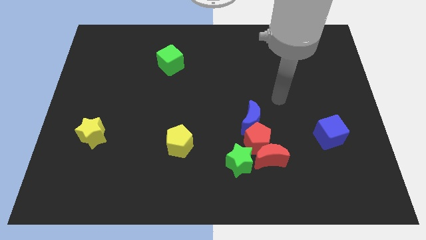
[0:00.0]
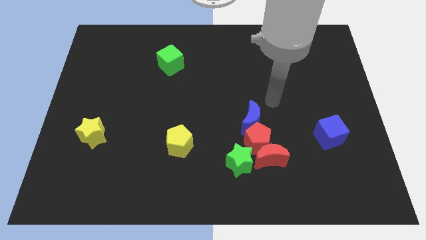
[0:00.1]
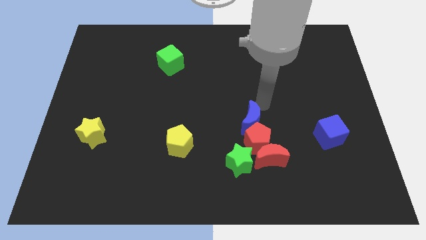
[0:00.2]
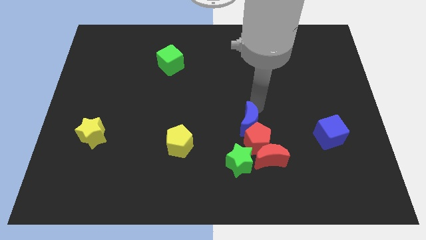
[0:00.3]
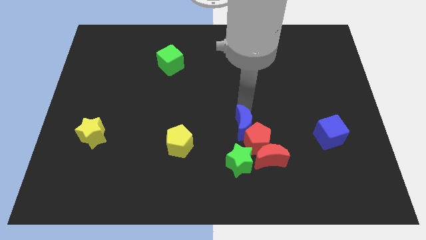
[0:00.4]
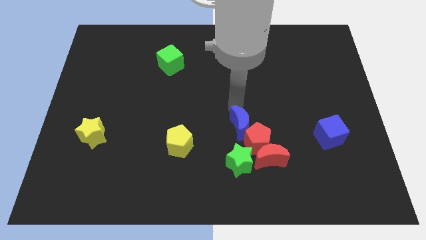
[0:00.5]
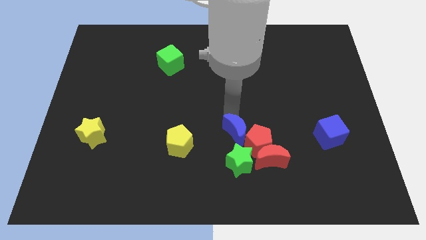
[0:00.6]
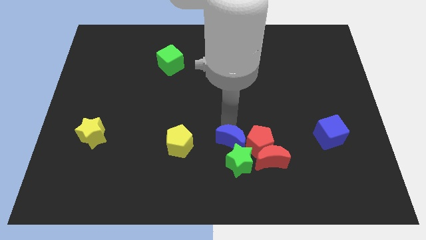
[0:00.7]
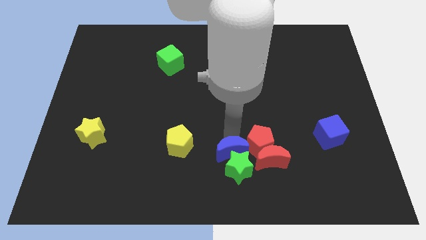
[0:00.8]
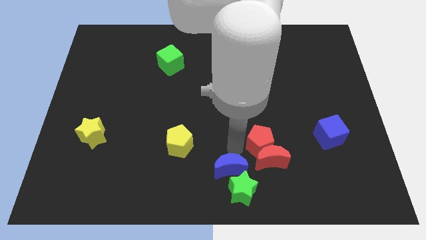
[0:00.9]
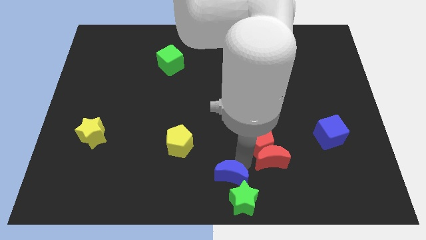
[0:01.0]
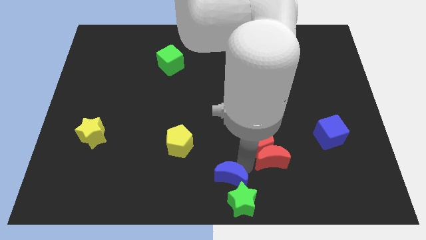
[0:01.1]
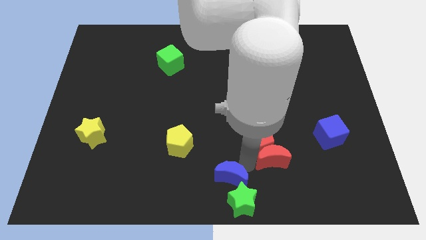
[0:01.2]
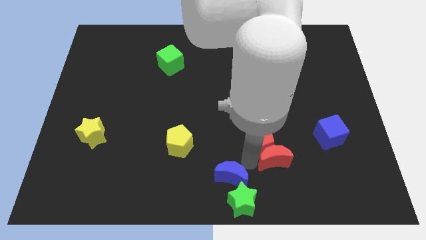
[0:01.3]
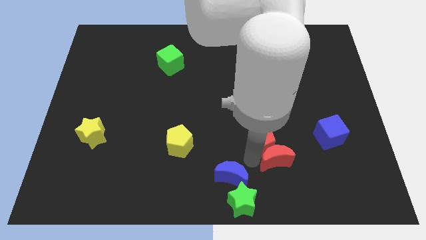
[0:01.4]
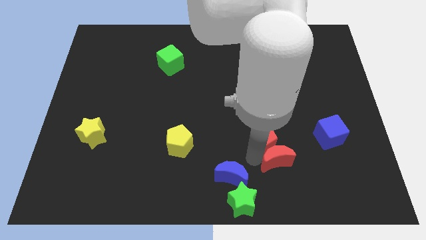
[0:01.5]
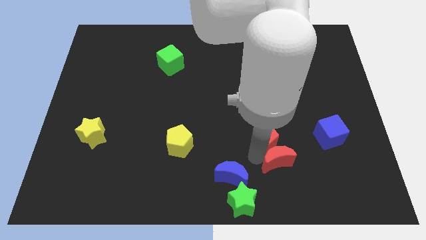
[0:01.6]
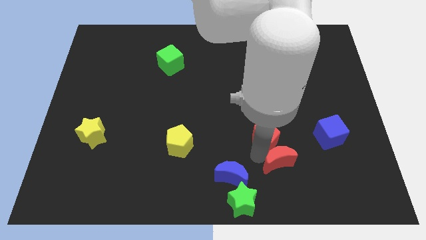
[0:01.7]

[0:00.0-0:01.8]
move the red pentagon away from the group

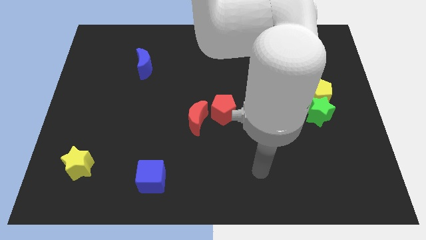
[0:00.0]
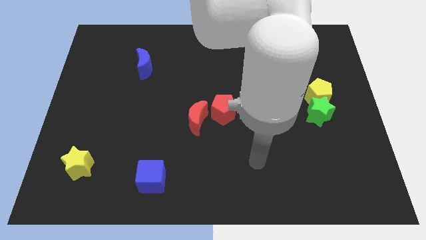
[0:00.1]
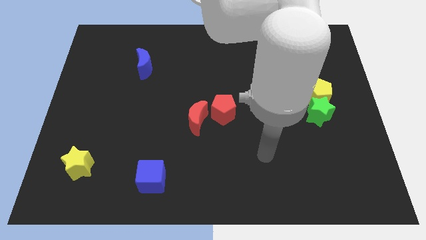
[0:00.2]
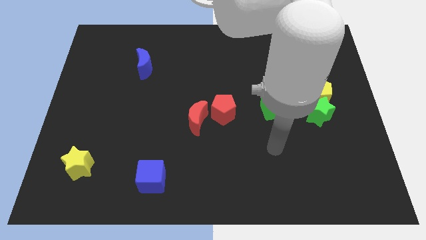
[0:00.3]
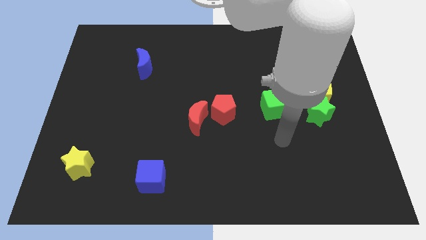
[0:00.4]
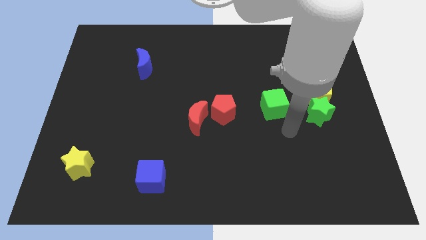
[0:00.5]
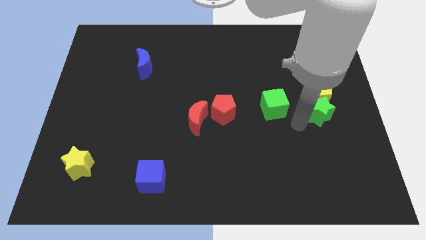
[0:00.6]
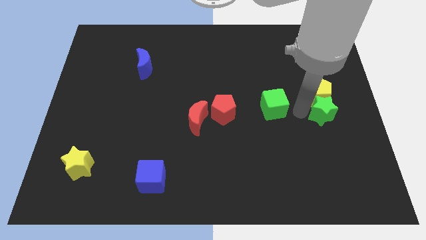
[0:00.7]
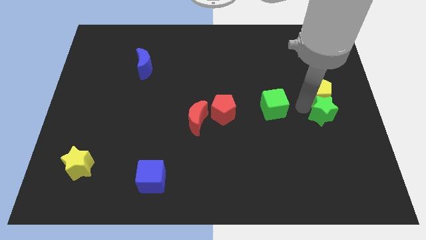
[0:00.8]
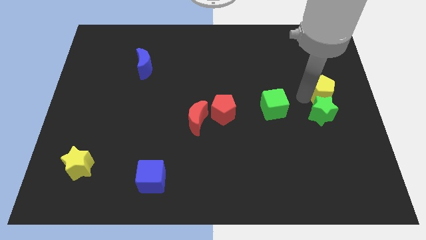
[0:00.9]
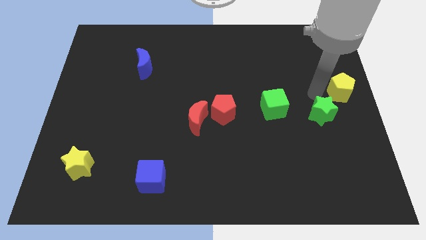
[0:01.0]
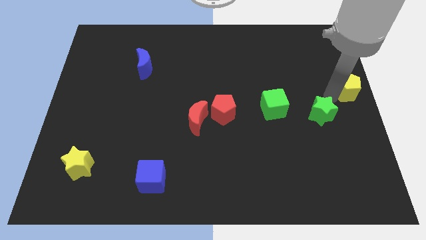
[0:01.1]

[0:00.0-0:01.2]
separate the green star from the yellow pentagon

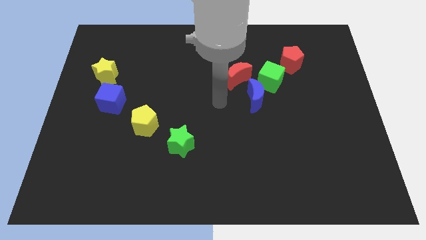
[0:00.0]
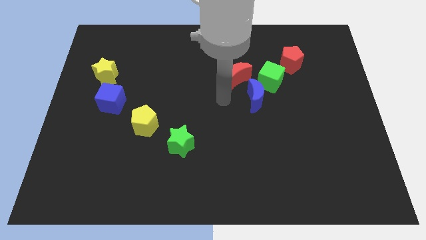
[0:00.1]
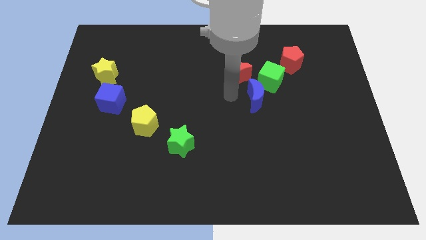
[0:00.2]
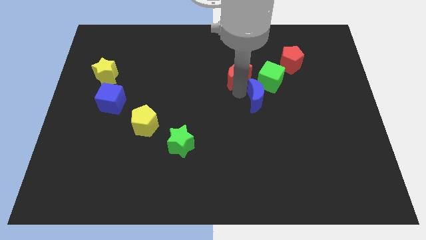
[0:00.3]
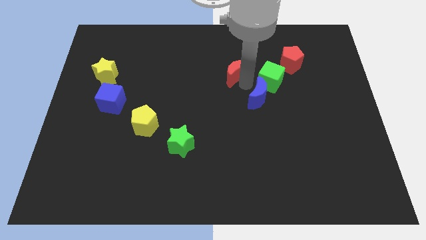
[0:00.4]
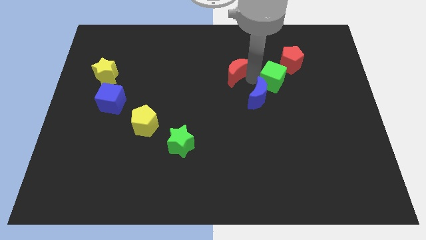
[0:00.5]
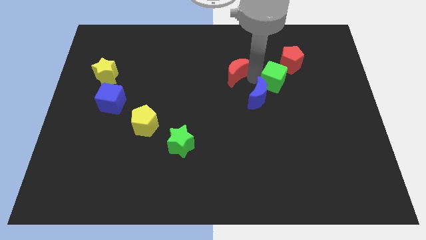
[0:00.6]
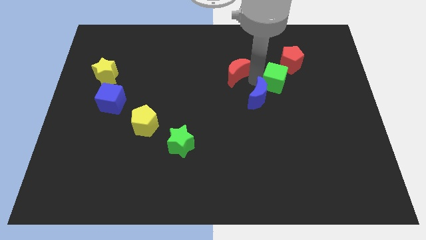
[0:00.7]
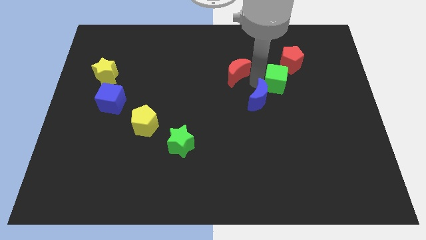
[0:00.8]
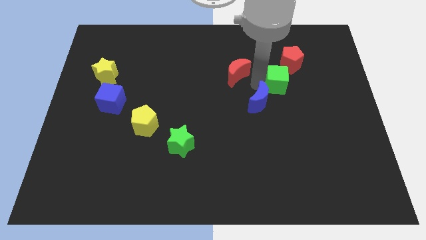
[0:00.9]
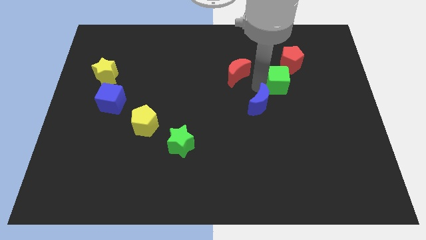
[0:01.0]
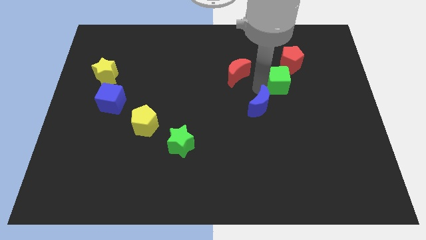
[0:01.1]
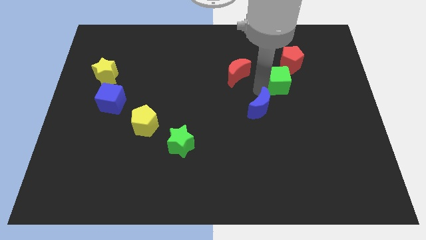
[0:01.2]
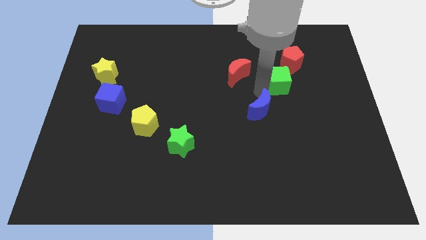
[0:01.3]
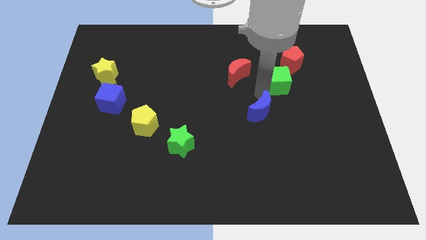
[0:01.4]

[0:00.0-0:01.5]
pull the blue moon apart from the green cube and red moon

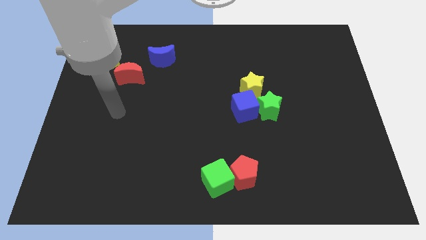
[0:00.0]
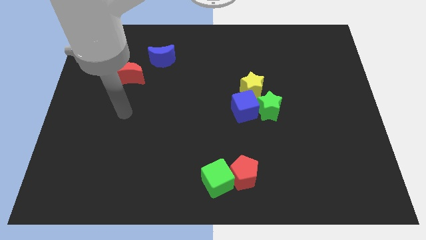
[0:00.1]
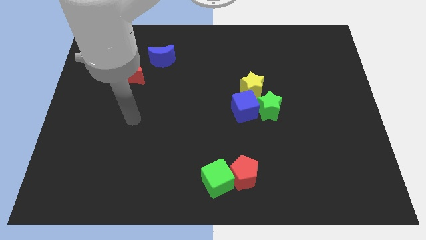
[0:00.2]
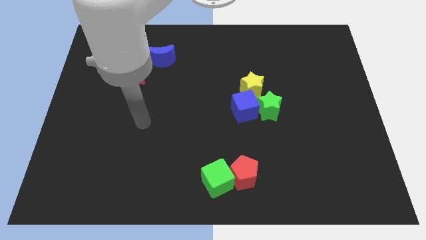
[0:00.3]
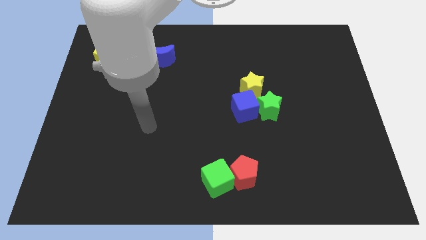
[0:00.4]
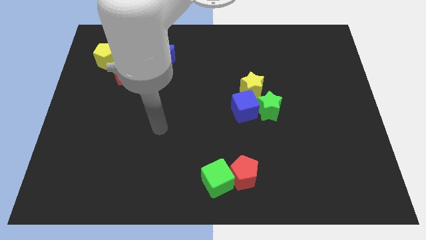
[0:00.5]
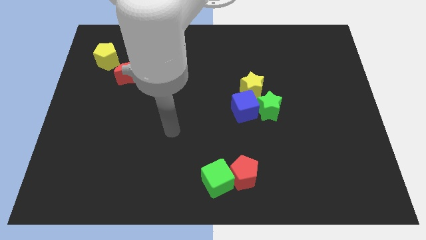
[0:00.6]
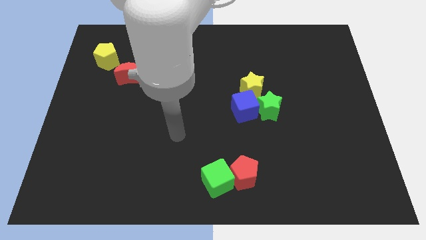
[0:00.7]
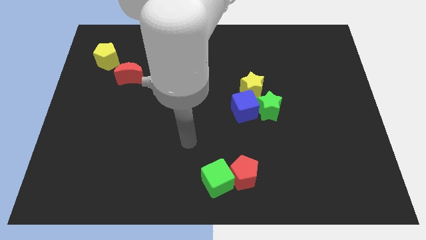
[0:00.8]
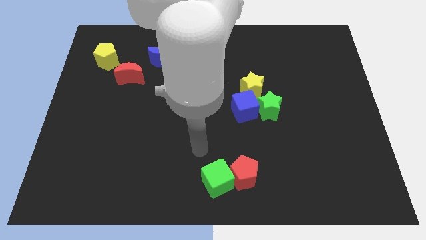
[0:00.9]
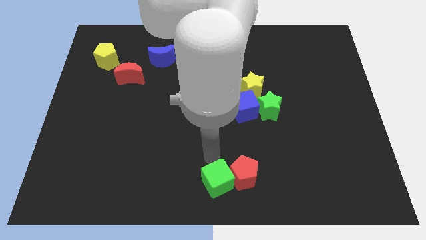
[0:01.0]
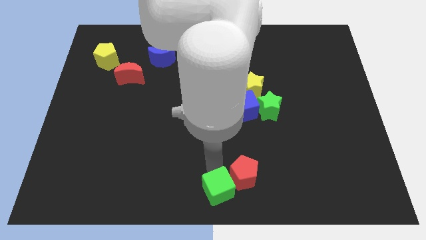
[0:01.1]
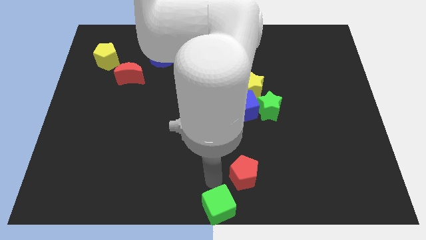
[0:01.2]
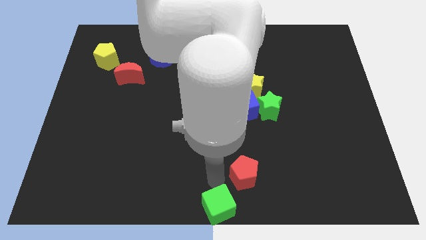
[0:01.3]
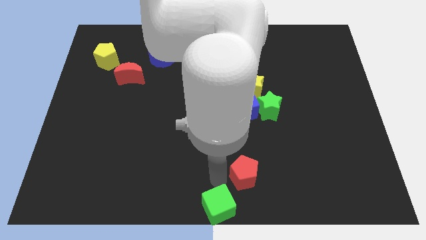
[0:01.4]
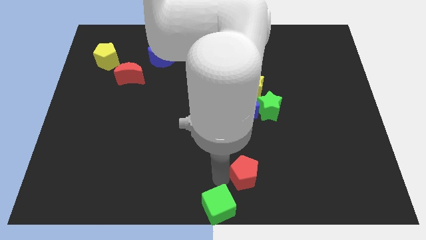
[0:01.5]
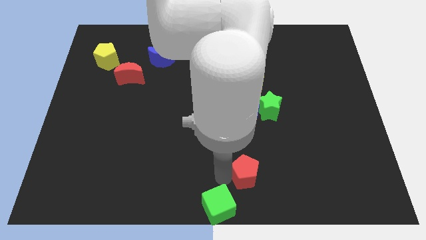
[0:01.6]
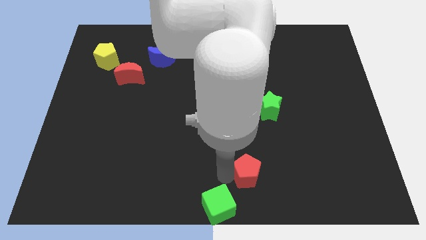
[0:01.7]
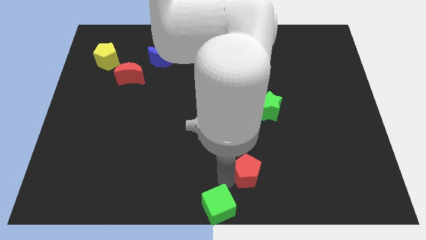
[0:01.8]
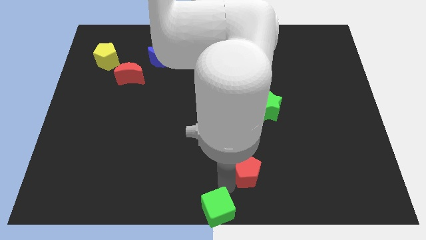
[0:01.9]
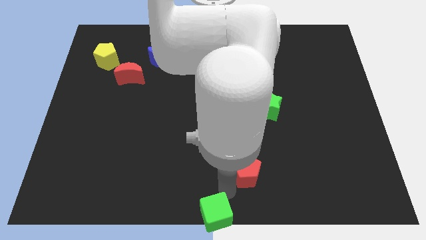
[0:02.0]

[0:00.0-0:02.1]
separate the red pentagon from the green cube

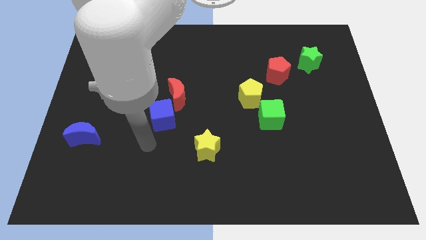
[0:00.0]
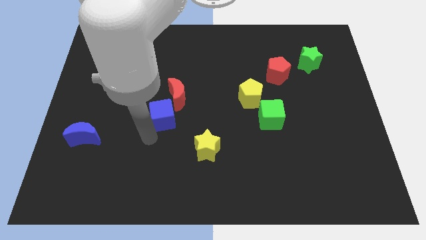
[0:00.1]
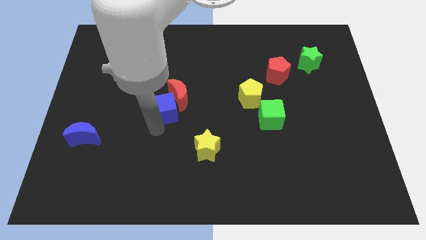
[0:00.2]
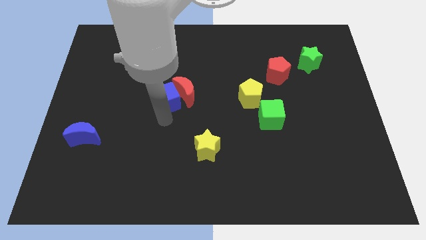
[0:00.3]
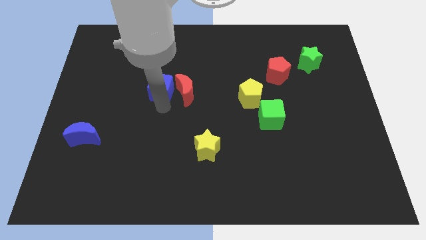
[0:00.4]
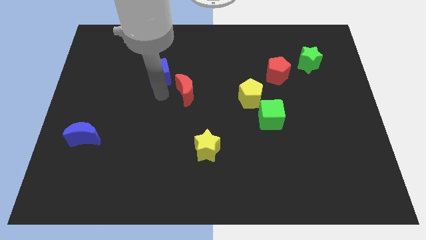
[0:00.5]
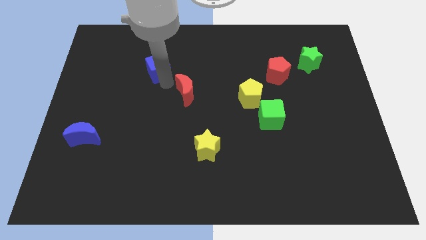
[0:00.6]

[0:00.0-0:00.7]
pull the red moon apart from the blue cube

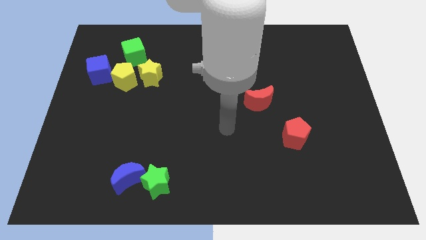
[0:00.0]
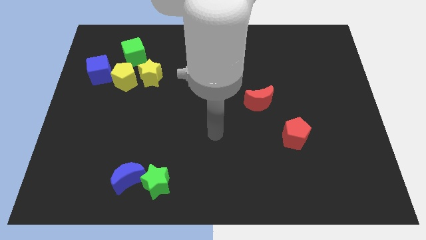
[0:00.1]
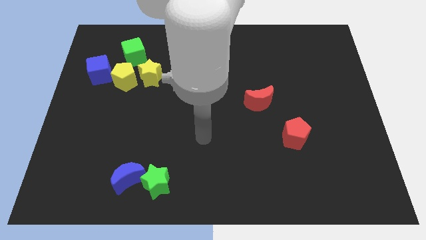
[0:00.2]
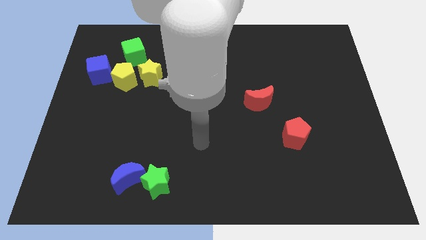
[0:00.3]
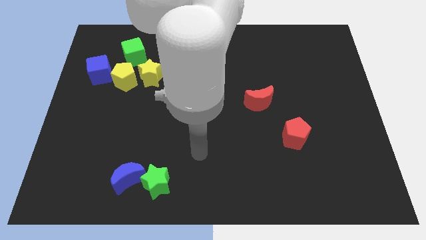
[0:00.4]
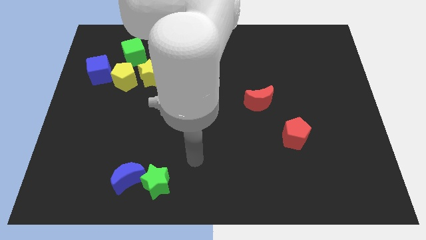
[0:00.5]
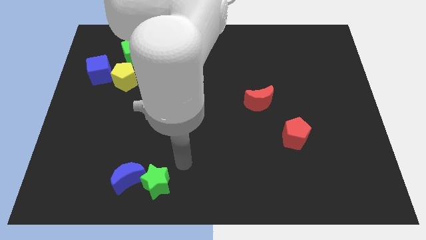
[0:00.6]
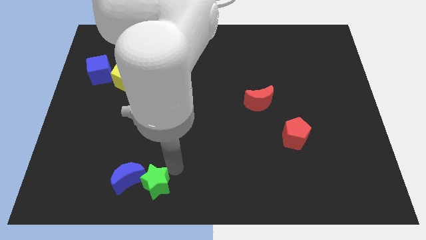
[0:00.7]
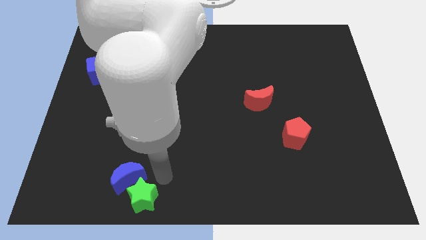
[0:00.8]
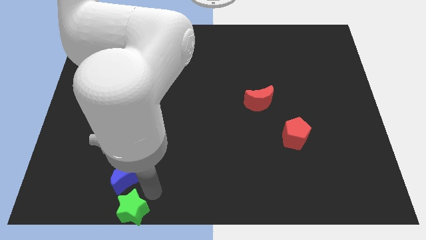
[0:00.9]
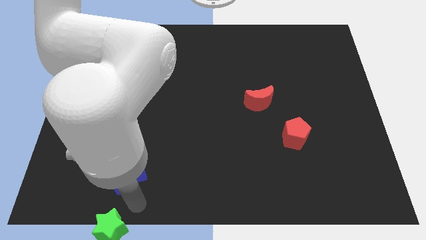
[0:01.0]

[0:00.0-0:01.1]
separate the blue moon from the green star

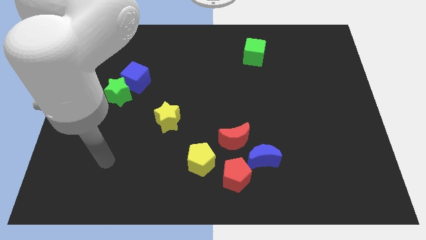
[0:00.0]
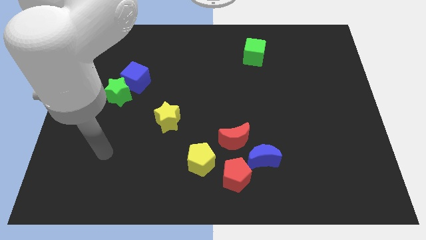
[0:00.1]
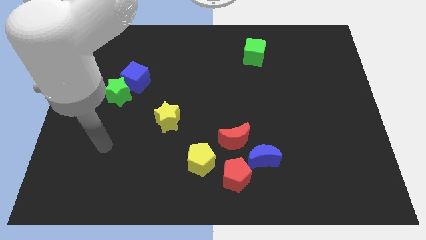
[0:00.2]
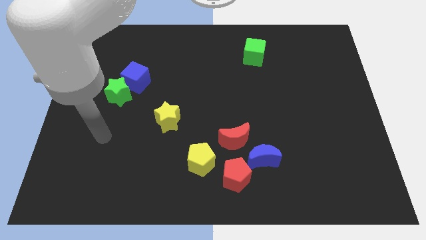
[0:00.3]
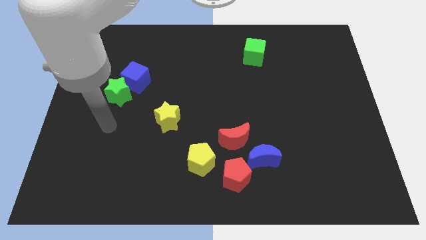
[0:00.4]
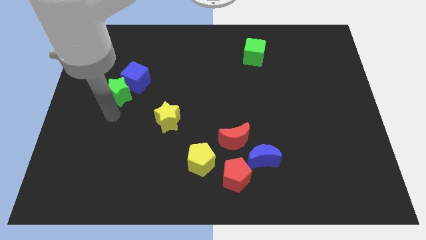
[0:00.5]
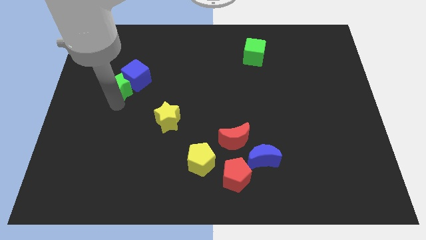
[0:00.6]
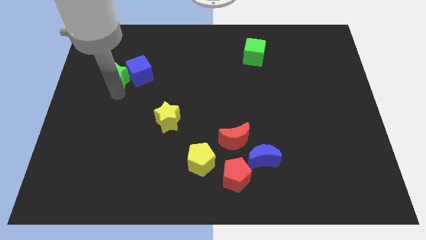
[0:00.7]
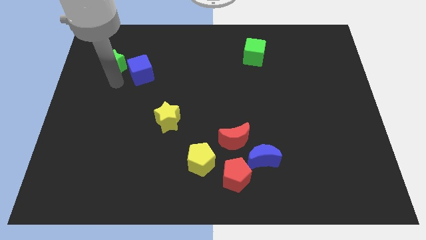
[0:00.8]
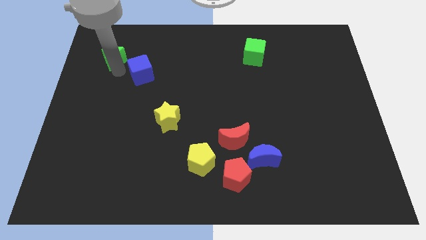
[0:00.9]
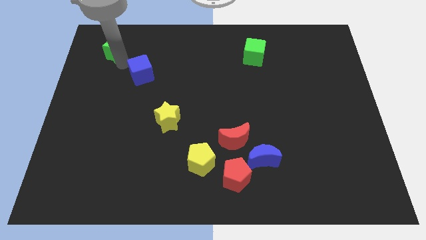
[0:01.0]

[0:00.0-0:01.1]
separate the blue cube from the green star
